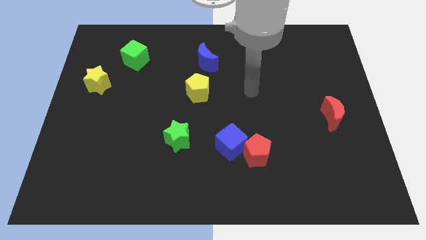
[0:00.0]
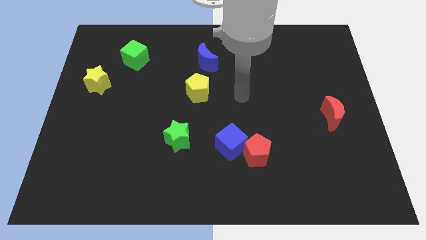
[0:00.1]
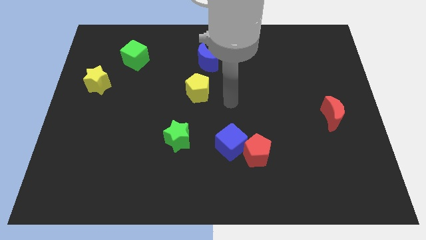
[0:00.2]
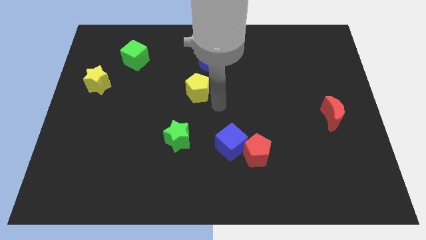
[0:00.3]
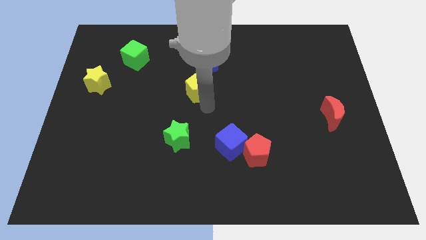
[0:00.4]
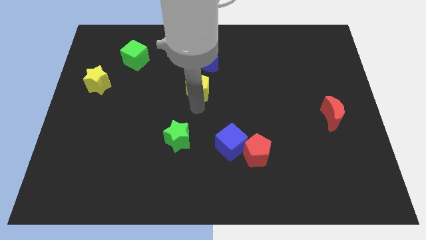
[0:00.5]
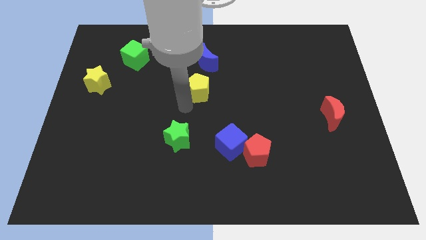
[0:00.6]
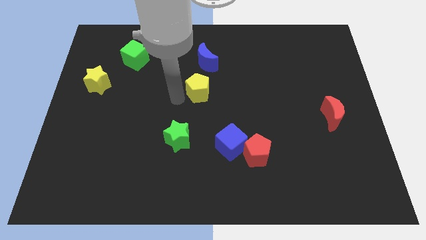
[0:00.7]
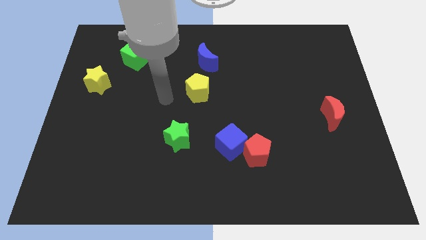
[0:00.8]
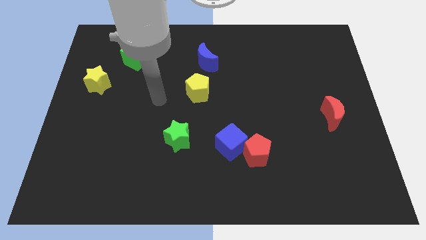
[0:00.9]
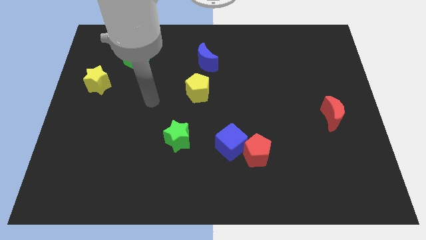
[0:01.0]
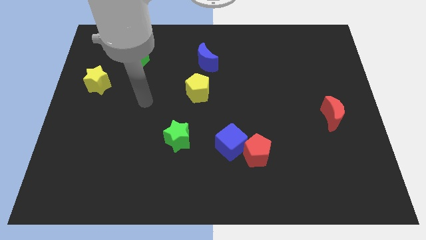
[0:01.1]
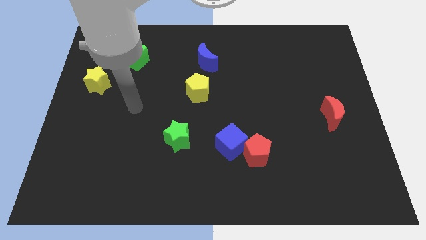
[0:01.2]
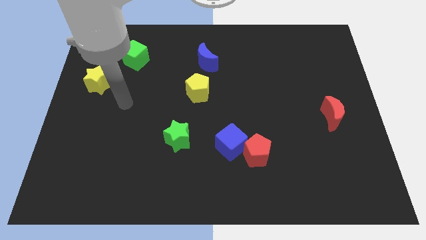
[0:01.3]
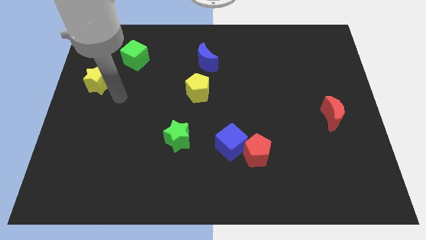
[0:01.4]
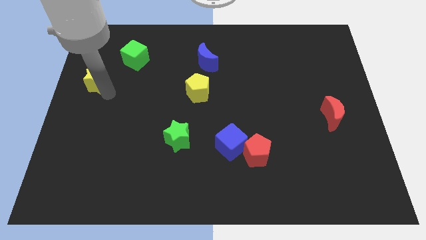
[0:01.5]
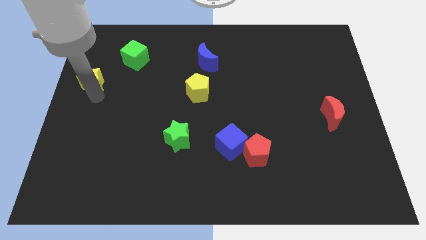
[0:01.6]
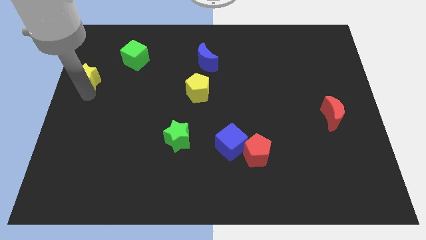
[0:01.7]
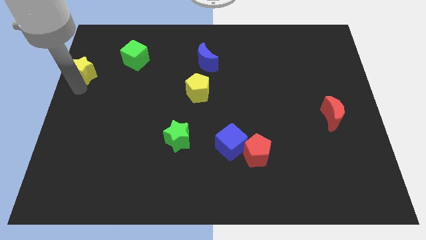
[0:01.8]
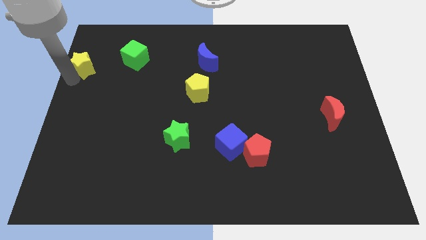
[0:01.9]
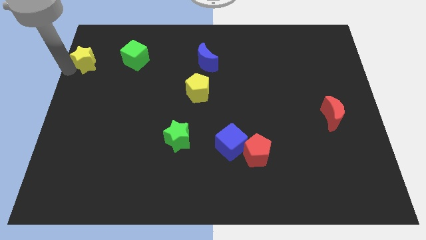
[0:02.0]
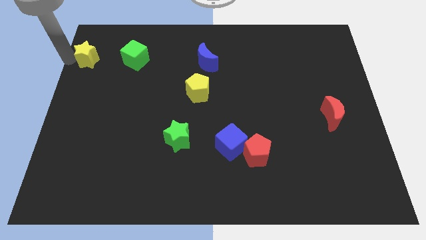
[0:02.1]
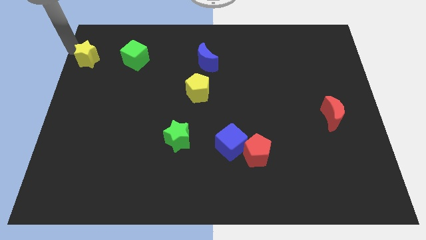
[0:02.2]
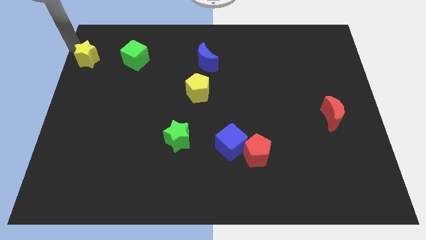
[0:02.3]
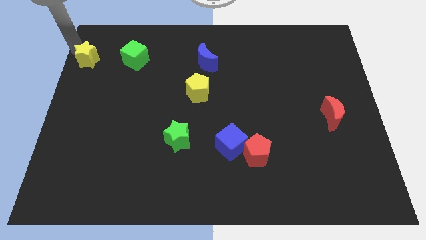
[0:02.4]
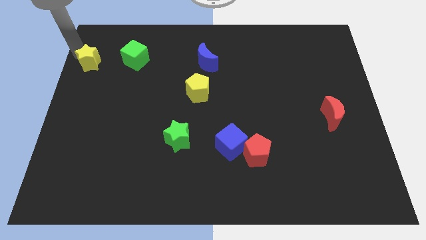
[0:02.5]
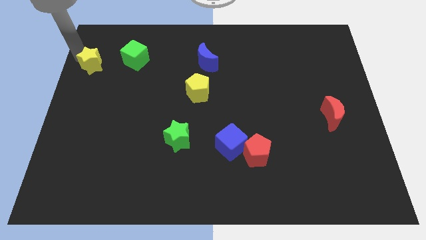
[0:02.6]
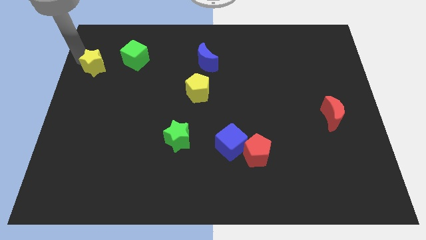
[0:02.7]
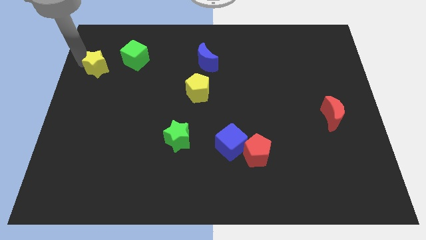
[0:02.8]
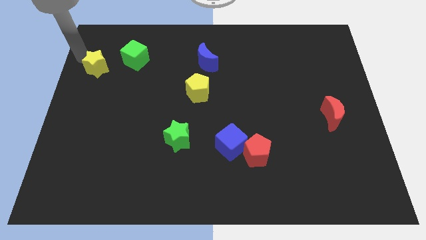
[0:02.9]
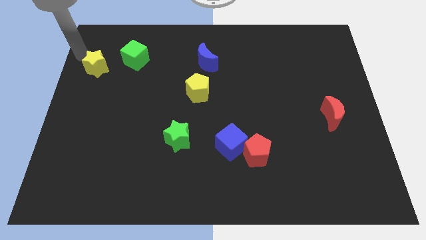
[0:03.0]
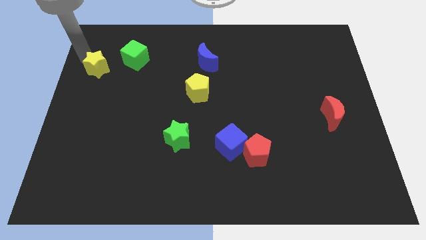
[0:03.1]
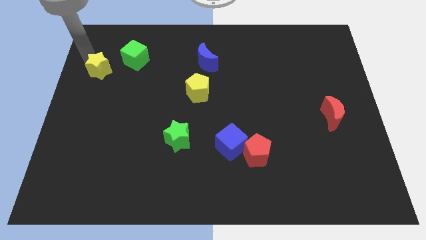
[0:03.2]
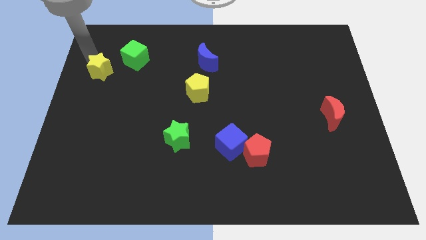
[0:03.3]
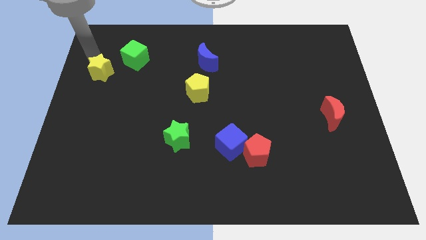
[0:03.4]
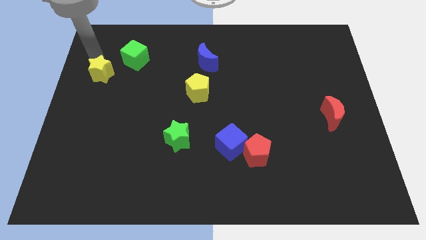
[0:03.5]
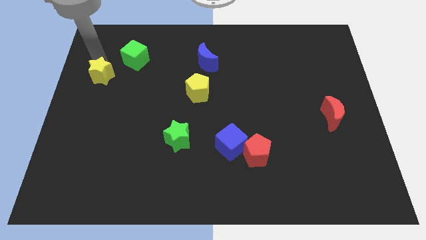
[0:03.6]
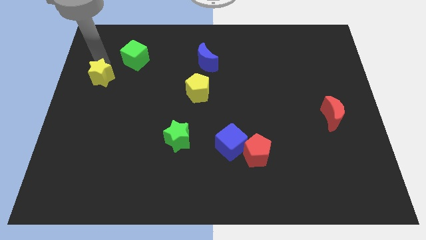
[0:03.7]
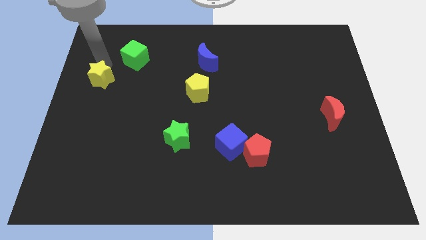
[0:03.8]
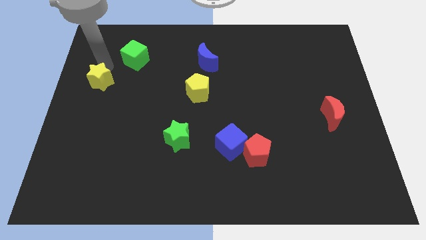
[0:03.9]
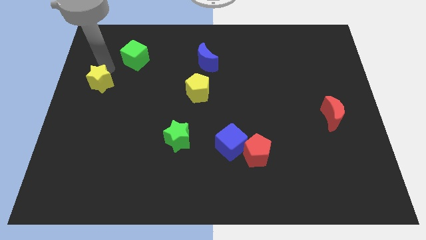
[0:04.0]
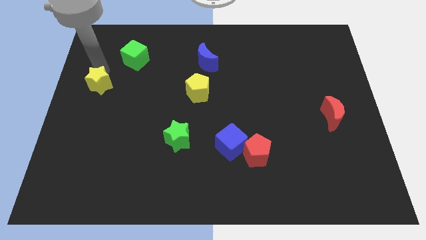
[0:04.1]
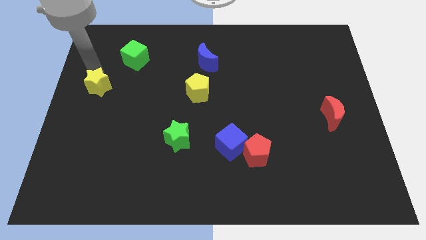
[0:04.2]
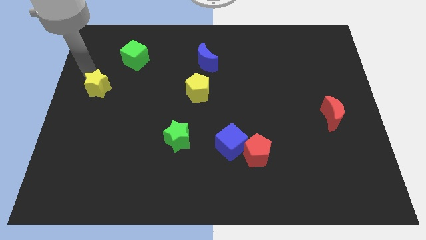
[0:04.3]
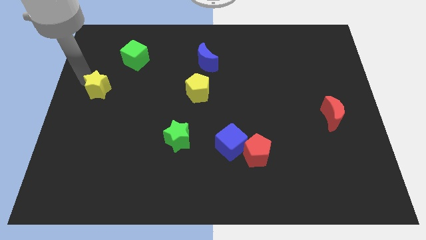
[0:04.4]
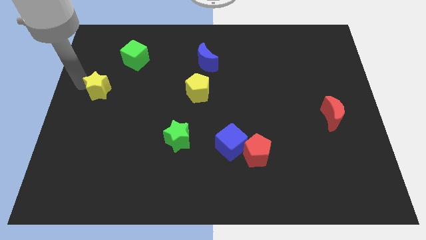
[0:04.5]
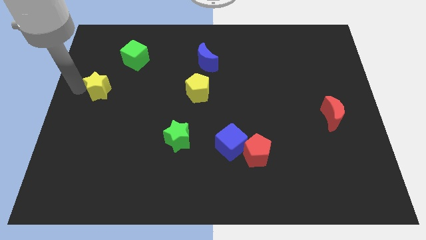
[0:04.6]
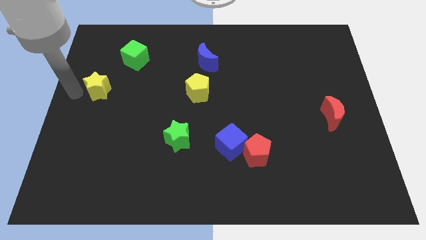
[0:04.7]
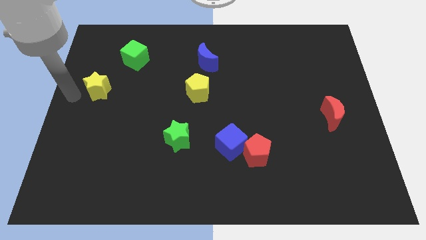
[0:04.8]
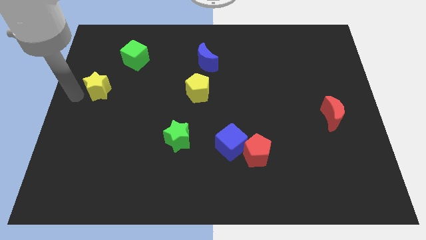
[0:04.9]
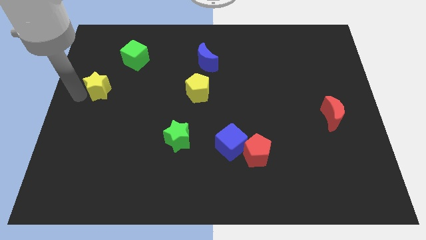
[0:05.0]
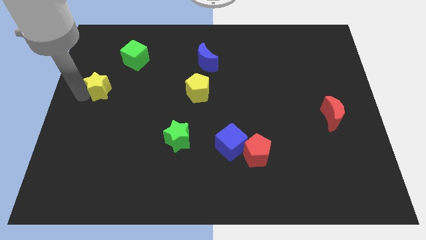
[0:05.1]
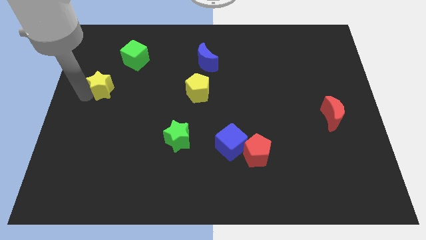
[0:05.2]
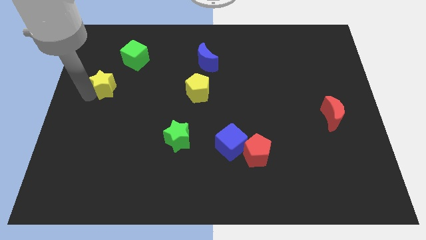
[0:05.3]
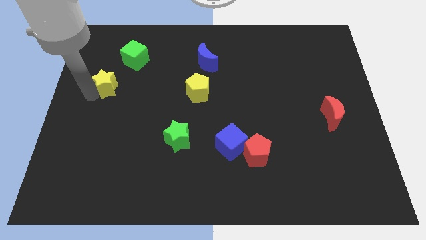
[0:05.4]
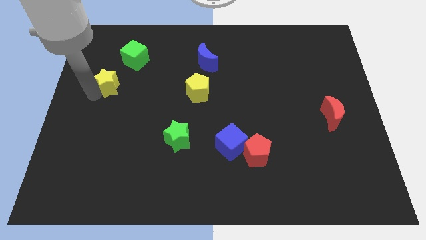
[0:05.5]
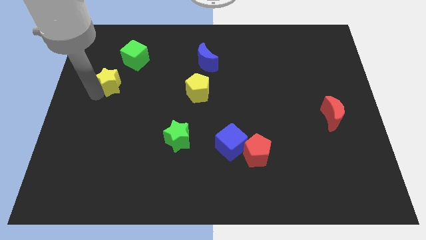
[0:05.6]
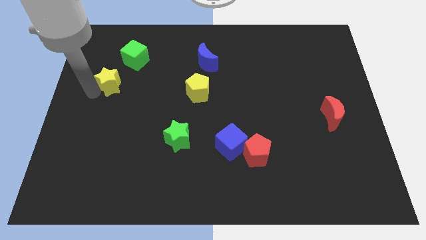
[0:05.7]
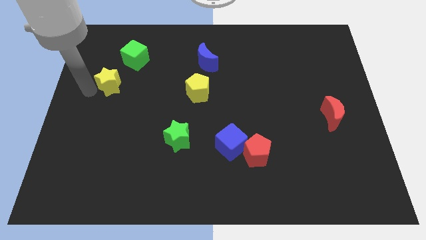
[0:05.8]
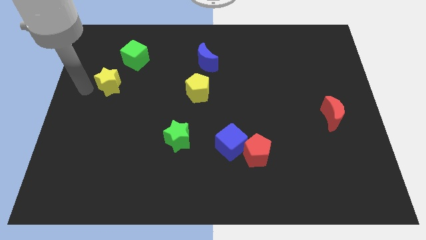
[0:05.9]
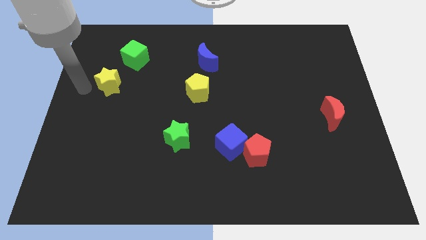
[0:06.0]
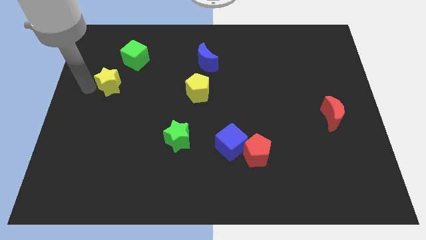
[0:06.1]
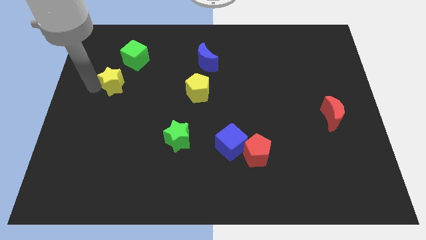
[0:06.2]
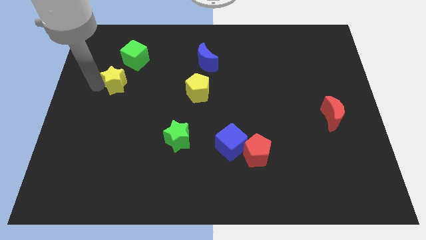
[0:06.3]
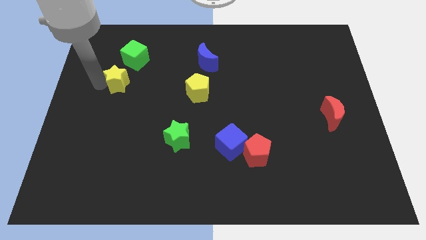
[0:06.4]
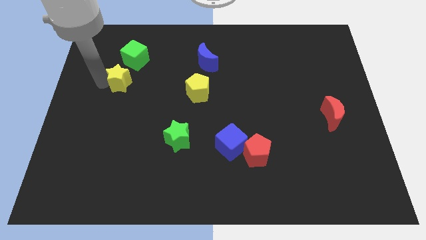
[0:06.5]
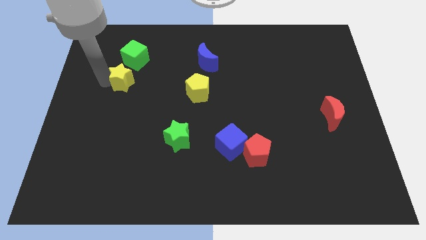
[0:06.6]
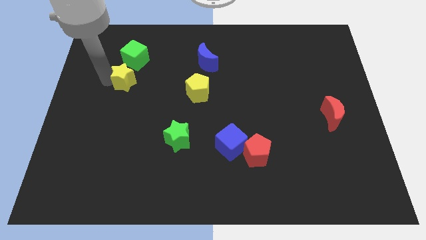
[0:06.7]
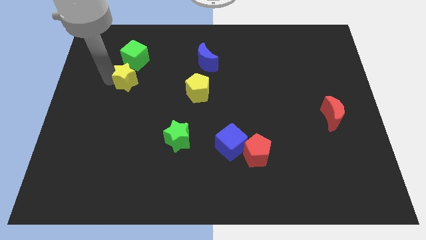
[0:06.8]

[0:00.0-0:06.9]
push the yellow star to the right a little bit

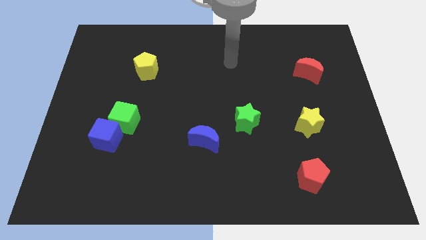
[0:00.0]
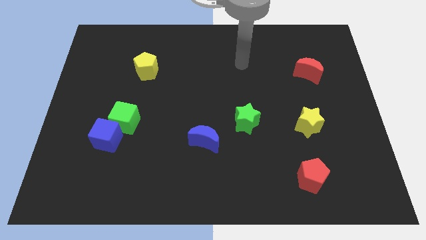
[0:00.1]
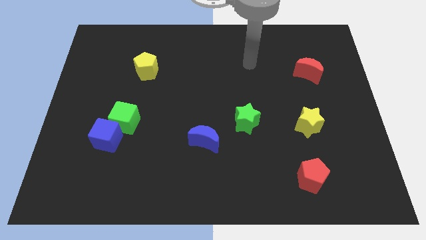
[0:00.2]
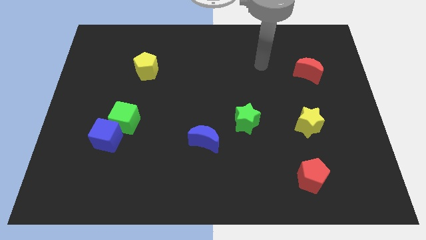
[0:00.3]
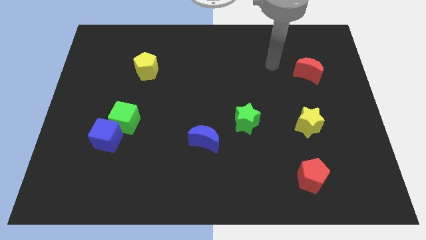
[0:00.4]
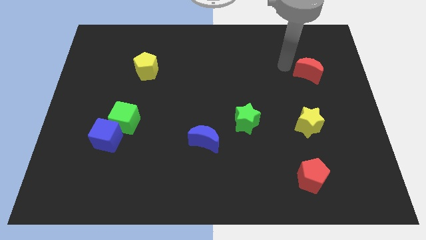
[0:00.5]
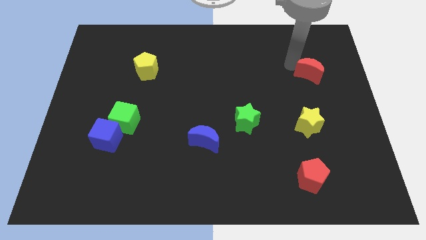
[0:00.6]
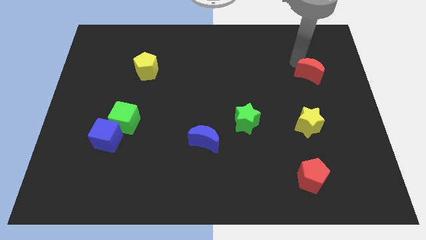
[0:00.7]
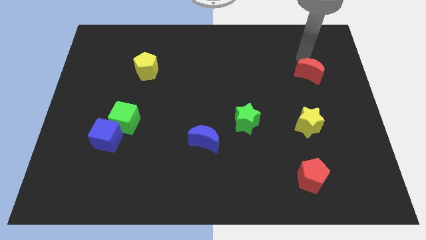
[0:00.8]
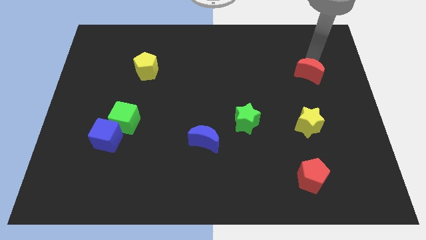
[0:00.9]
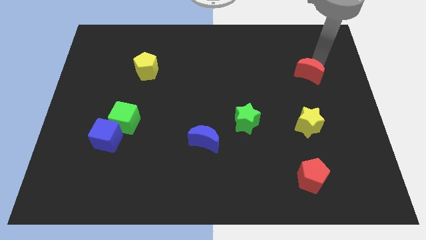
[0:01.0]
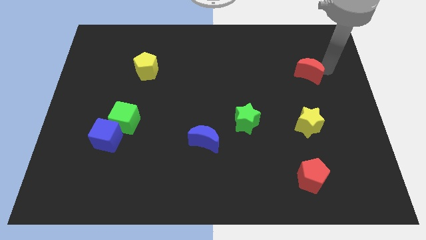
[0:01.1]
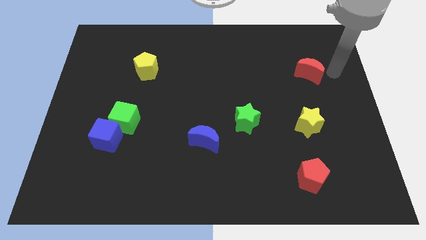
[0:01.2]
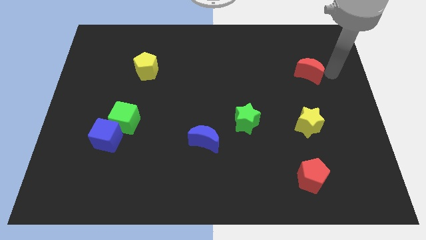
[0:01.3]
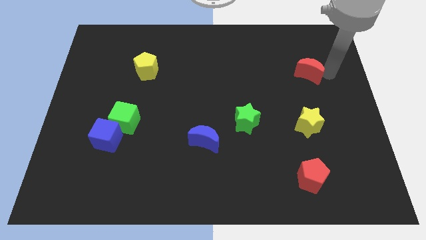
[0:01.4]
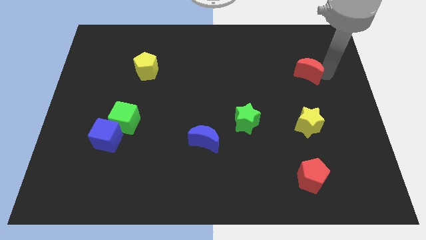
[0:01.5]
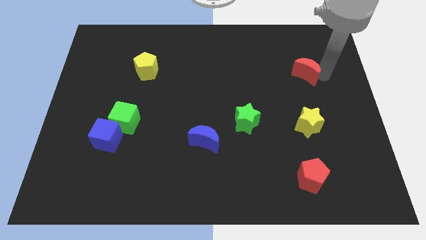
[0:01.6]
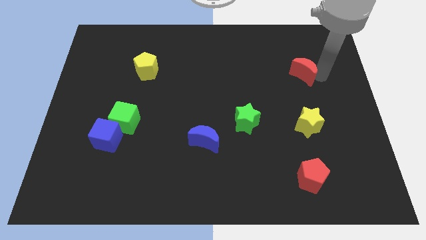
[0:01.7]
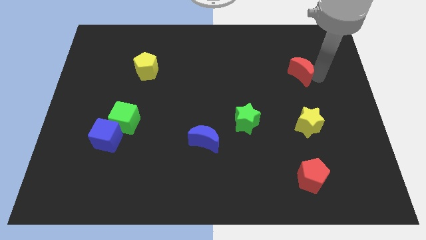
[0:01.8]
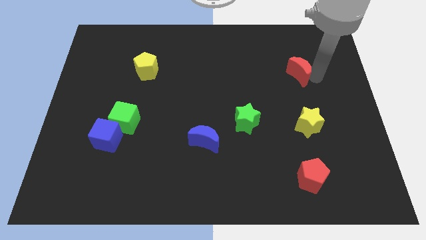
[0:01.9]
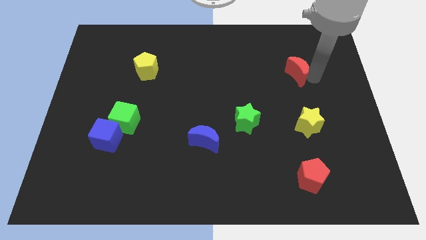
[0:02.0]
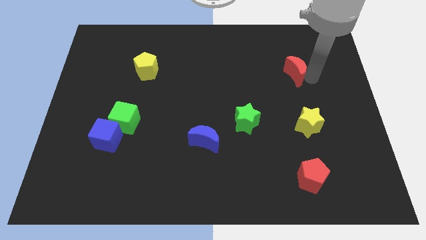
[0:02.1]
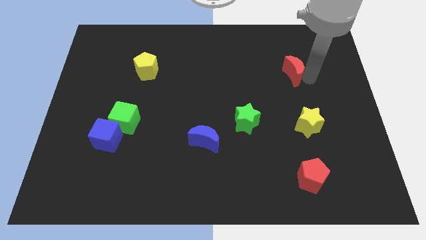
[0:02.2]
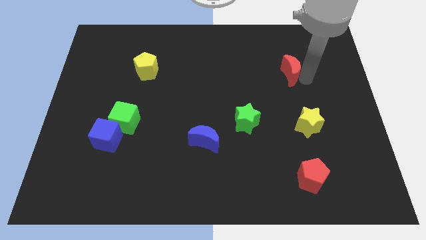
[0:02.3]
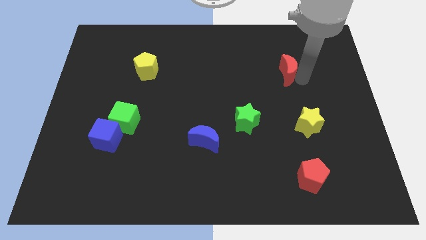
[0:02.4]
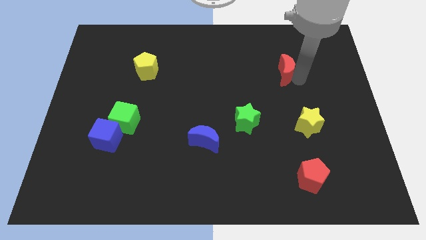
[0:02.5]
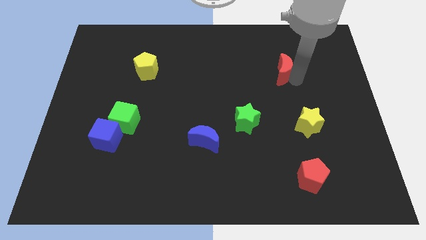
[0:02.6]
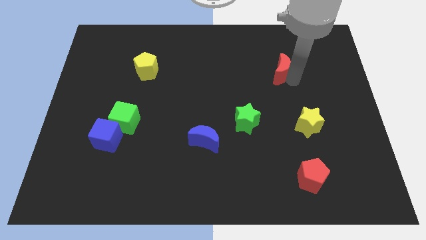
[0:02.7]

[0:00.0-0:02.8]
move the red moon to the left a bit
